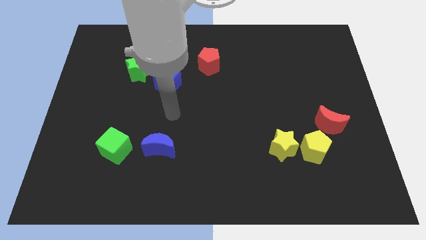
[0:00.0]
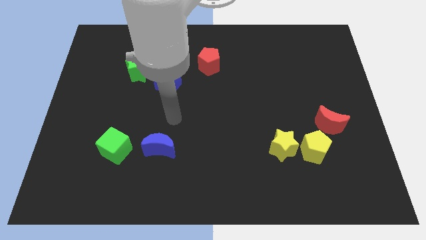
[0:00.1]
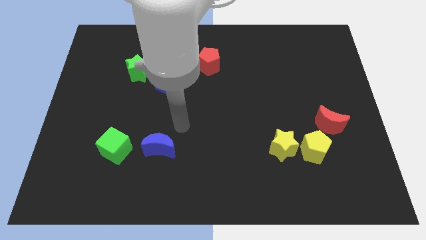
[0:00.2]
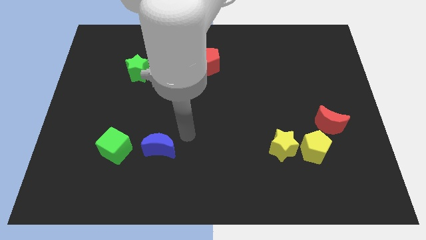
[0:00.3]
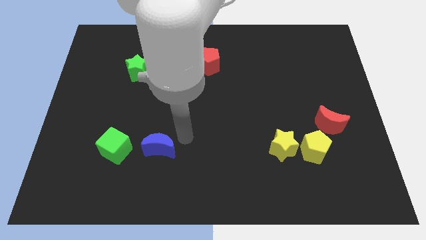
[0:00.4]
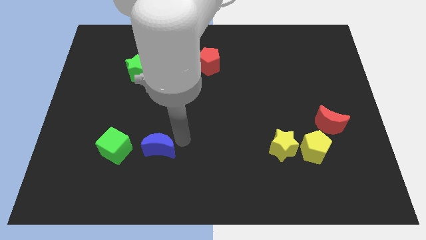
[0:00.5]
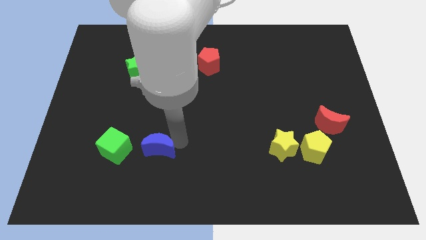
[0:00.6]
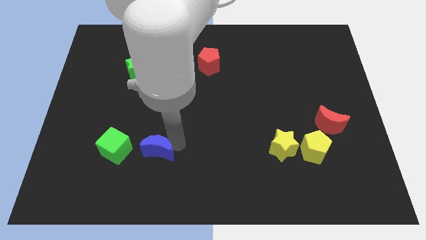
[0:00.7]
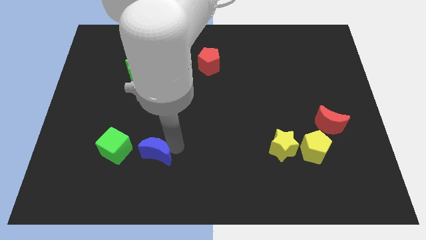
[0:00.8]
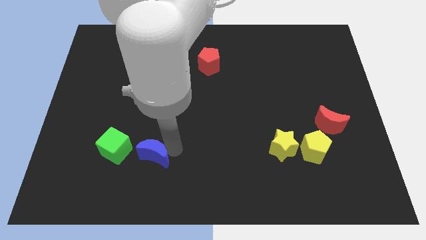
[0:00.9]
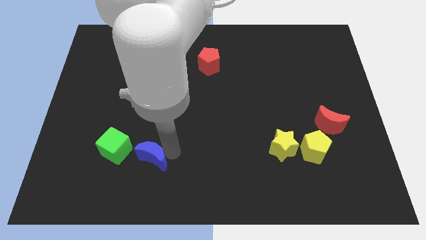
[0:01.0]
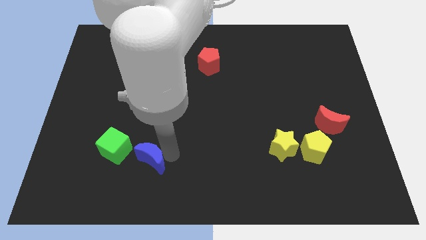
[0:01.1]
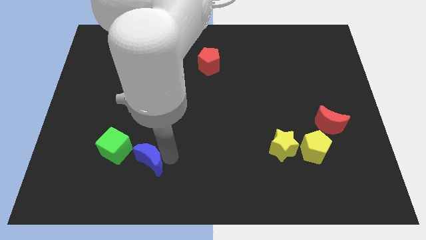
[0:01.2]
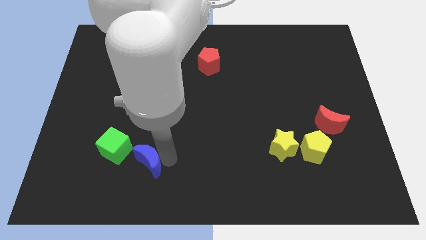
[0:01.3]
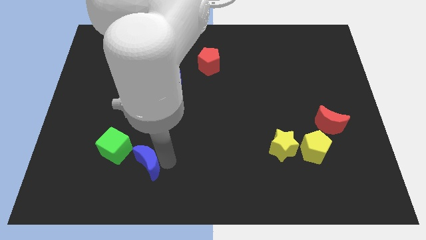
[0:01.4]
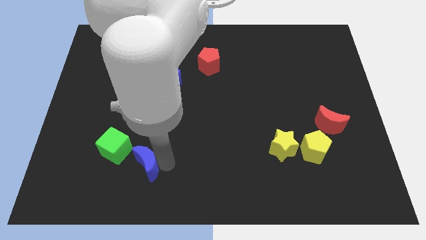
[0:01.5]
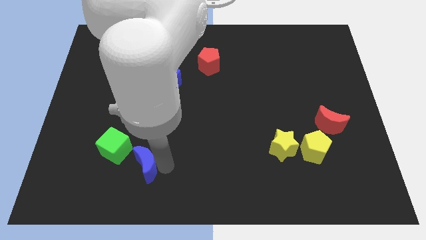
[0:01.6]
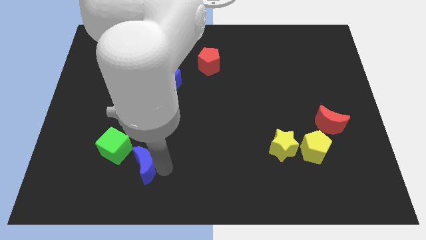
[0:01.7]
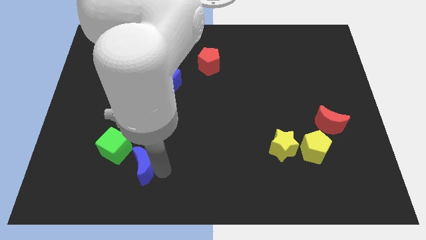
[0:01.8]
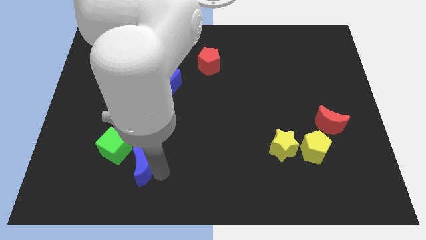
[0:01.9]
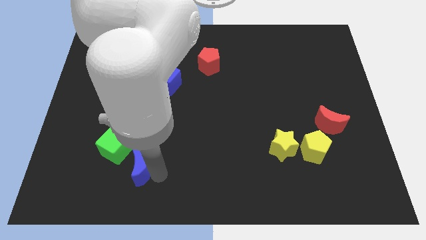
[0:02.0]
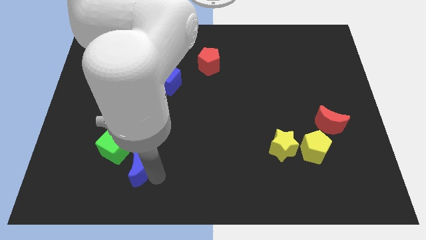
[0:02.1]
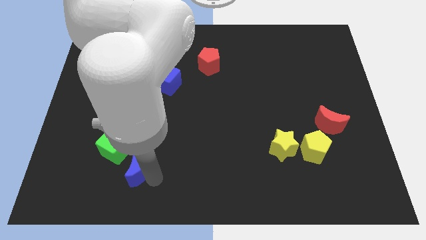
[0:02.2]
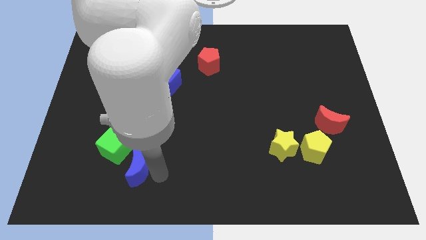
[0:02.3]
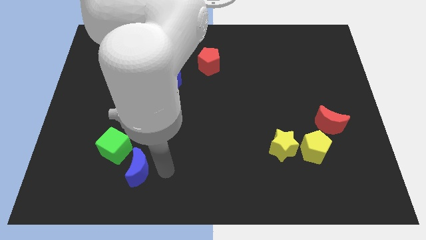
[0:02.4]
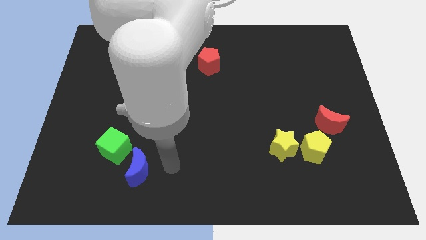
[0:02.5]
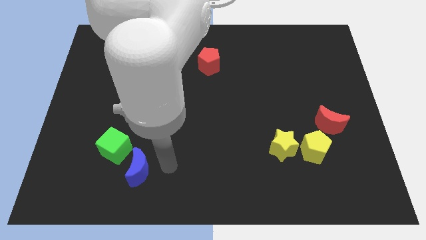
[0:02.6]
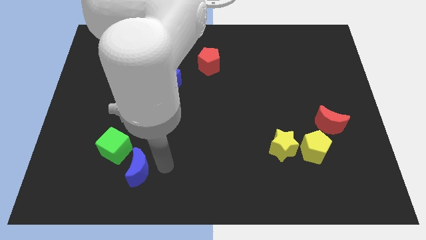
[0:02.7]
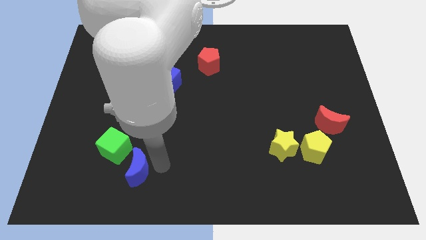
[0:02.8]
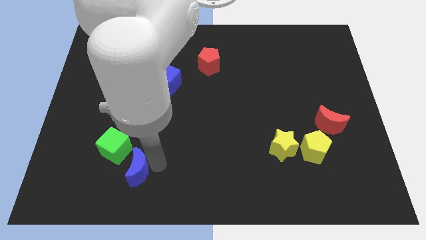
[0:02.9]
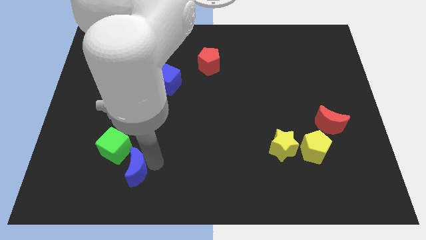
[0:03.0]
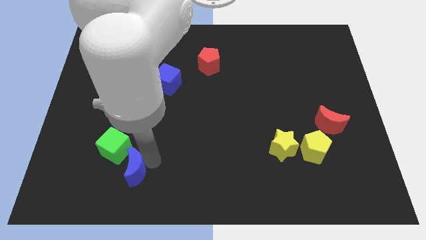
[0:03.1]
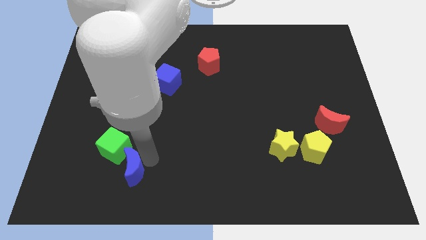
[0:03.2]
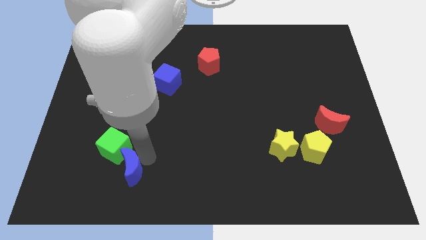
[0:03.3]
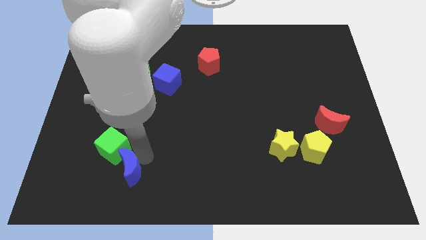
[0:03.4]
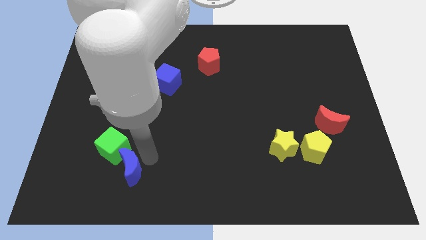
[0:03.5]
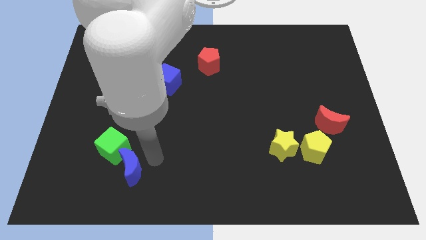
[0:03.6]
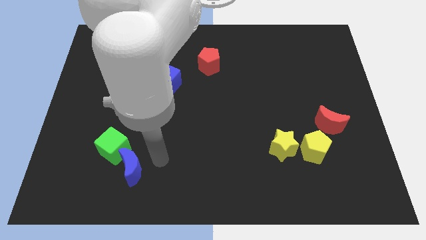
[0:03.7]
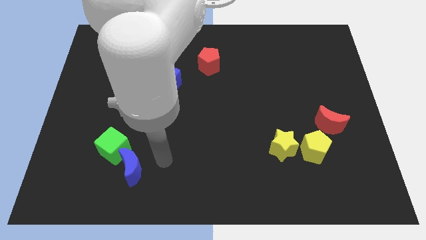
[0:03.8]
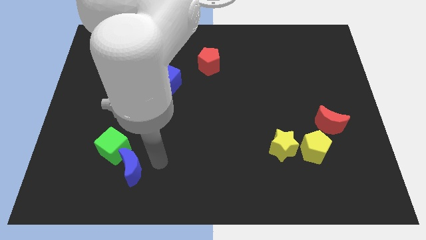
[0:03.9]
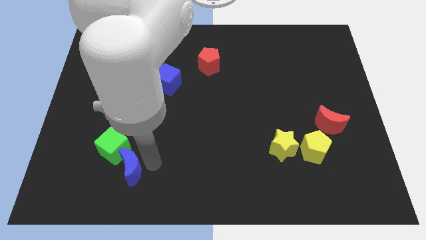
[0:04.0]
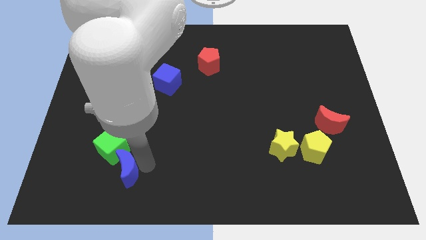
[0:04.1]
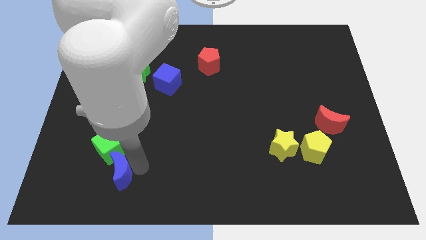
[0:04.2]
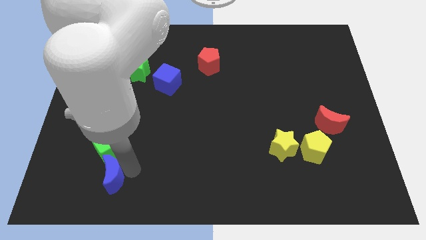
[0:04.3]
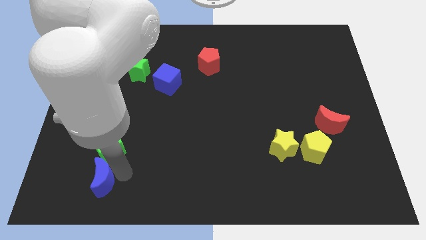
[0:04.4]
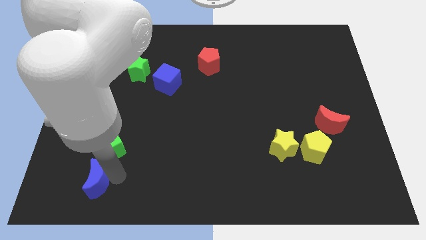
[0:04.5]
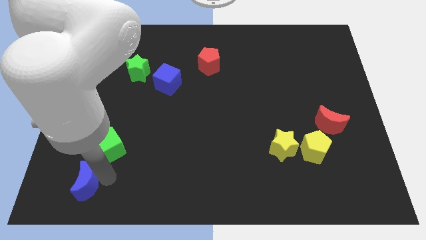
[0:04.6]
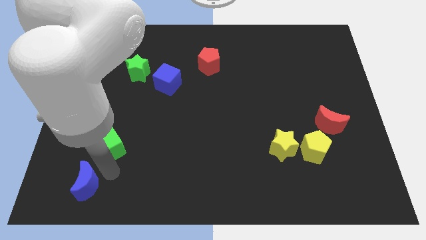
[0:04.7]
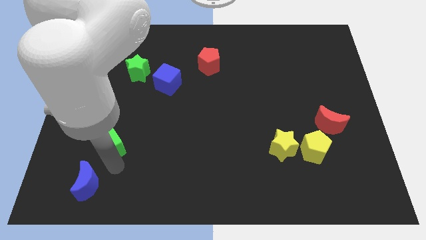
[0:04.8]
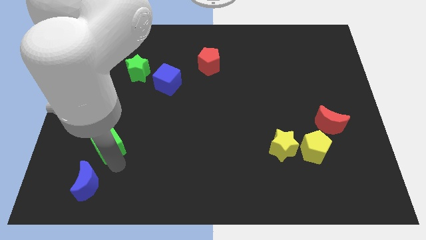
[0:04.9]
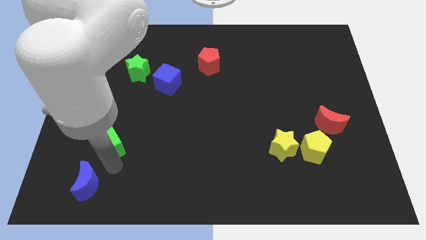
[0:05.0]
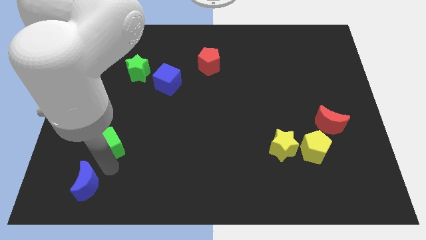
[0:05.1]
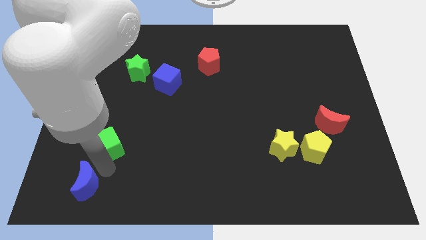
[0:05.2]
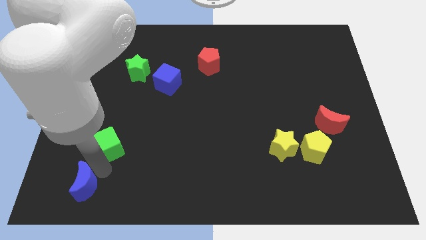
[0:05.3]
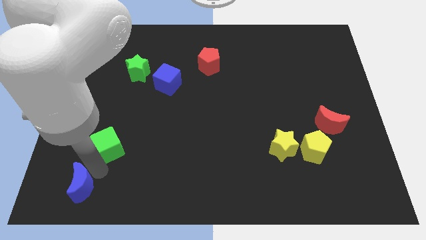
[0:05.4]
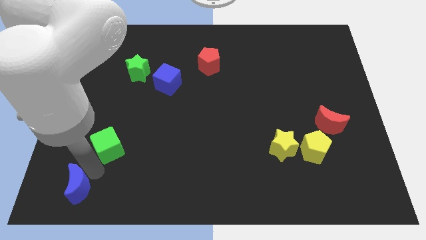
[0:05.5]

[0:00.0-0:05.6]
slide the blue moon to the bottom left

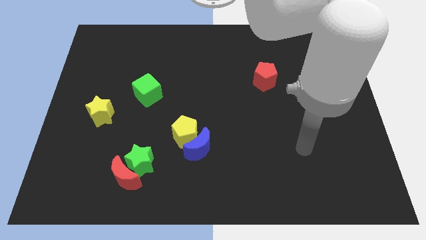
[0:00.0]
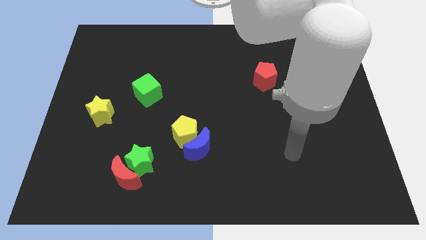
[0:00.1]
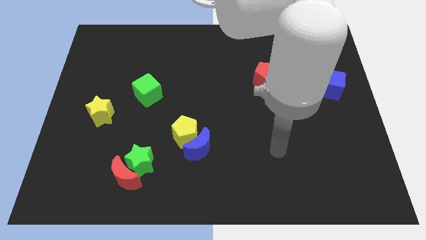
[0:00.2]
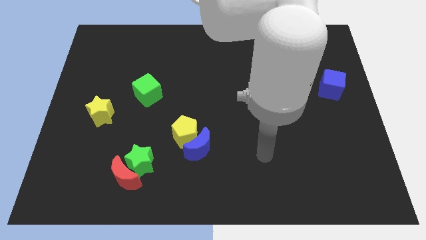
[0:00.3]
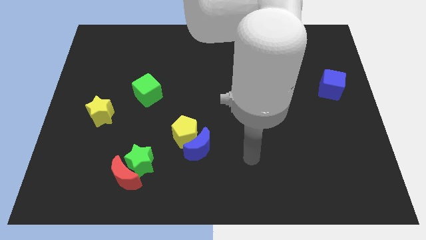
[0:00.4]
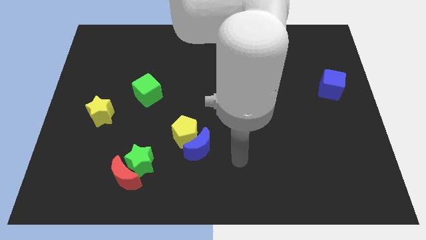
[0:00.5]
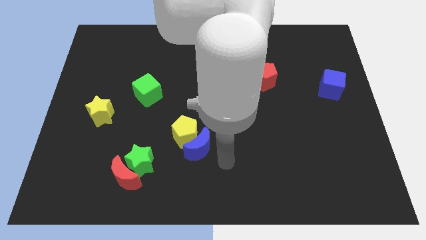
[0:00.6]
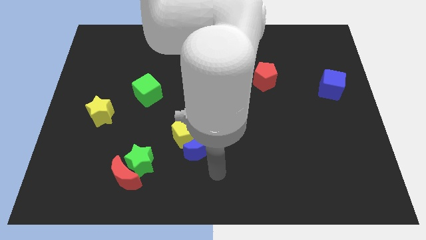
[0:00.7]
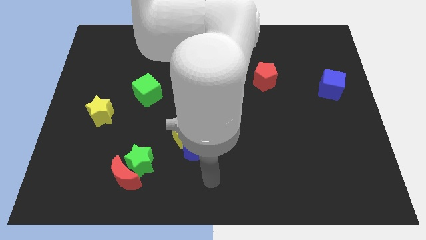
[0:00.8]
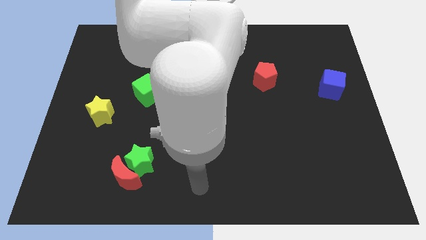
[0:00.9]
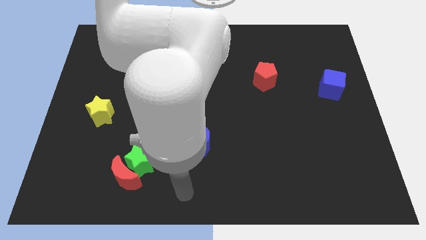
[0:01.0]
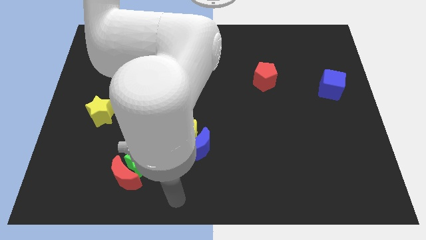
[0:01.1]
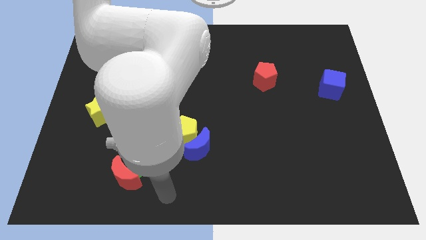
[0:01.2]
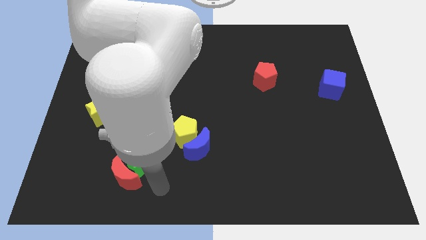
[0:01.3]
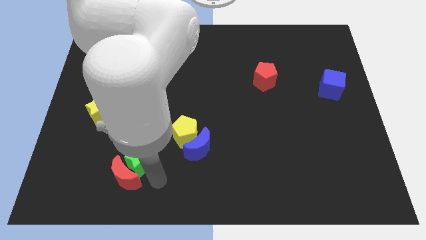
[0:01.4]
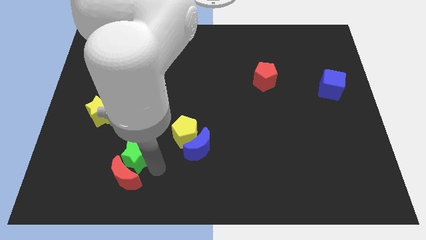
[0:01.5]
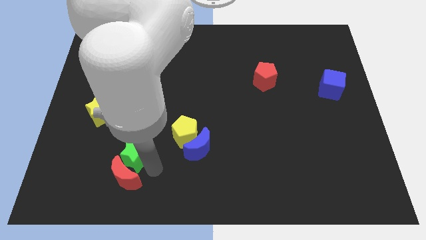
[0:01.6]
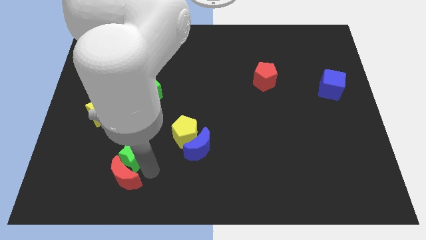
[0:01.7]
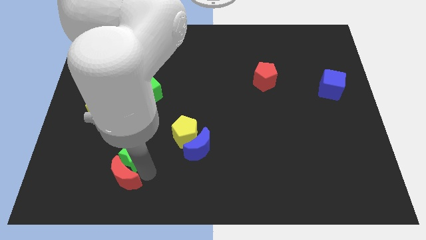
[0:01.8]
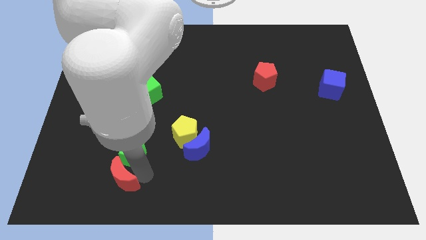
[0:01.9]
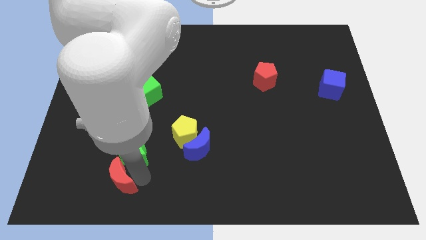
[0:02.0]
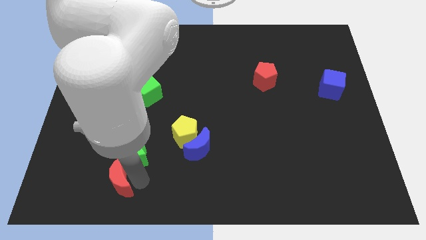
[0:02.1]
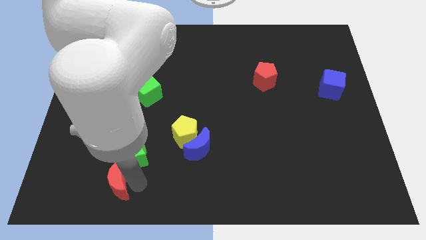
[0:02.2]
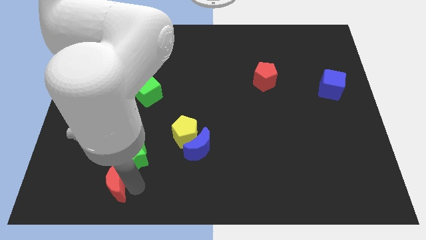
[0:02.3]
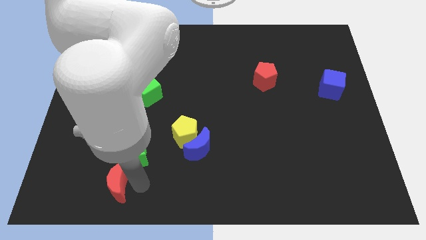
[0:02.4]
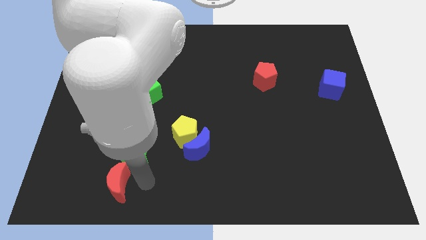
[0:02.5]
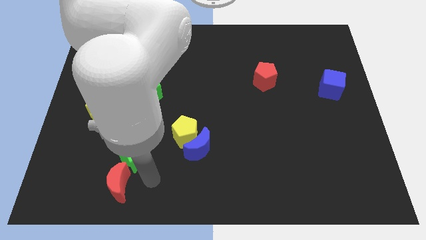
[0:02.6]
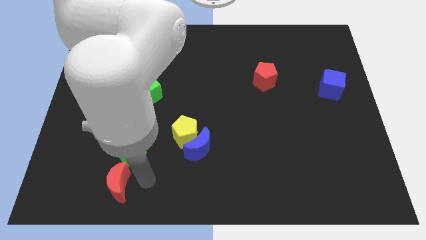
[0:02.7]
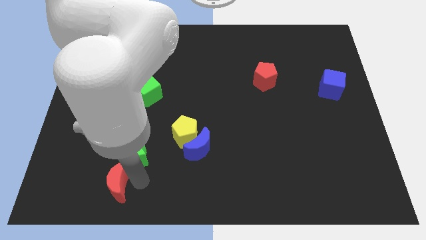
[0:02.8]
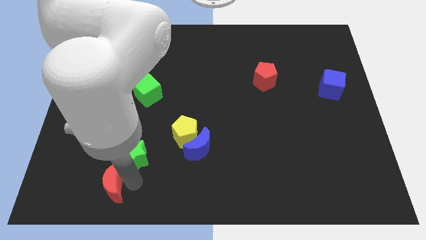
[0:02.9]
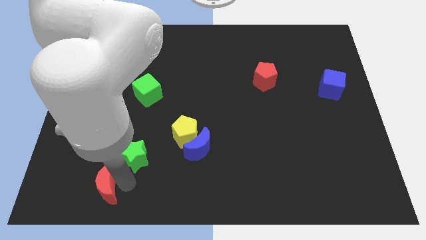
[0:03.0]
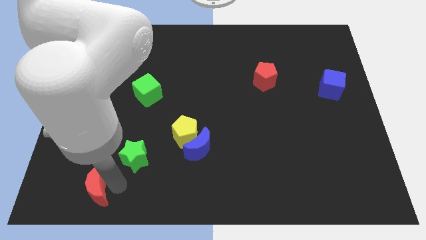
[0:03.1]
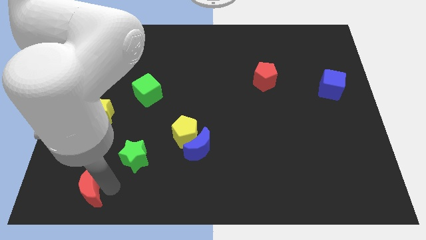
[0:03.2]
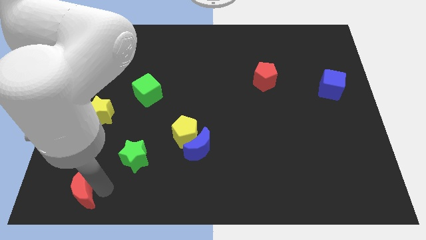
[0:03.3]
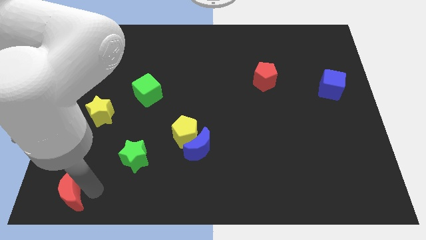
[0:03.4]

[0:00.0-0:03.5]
push the red moon to the bottom left corner
